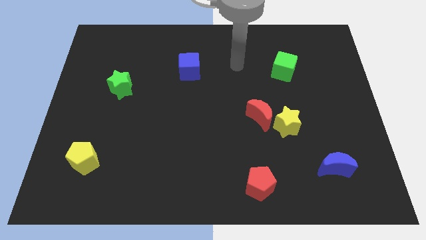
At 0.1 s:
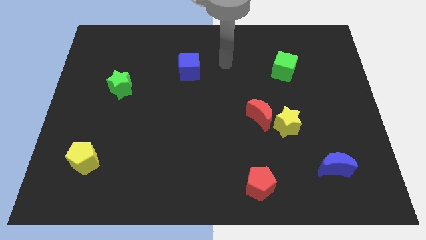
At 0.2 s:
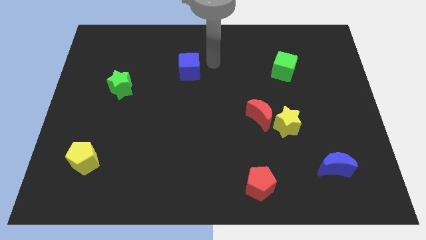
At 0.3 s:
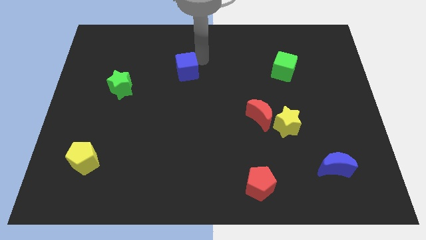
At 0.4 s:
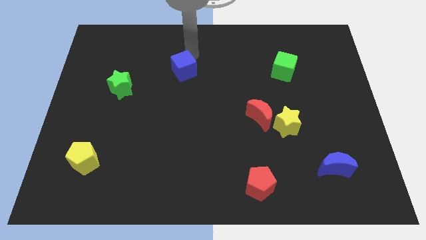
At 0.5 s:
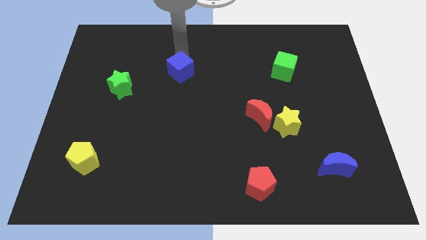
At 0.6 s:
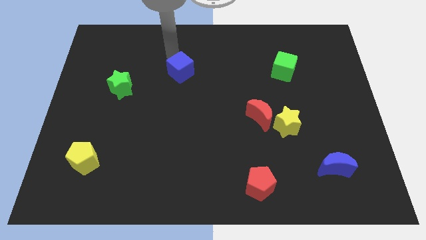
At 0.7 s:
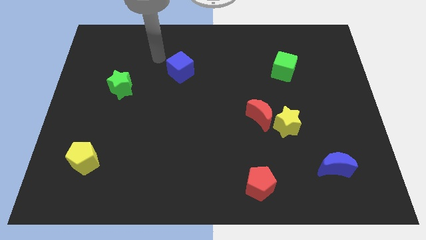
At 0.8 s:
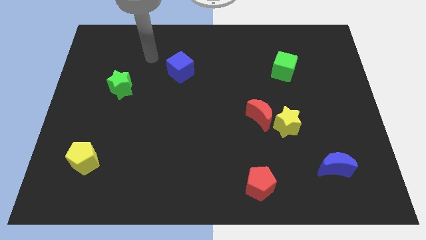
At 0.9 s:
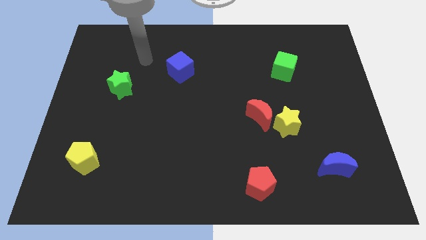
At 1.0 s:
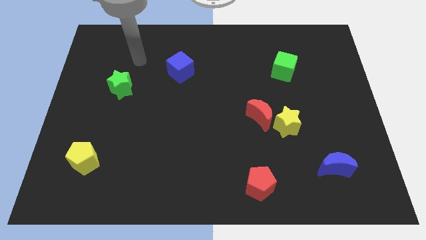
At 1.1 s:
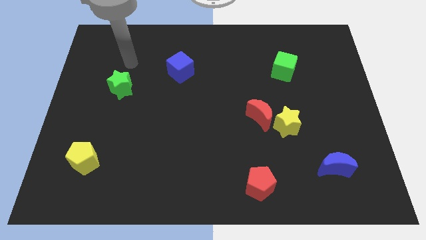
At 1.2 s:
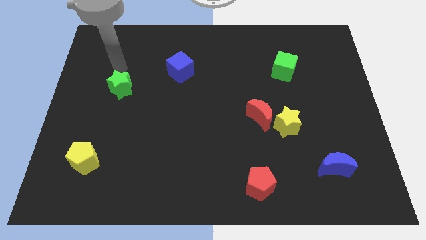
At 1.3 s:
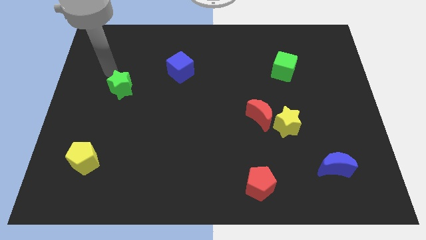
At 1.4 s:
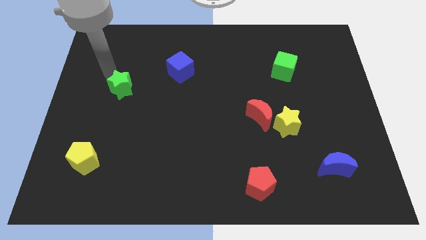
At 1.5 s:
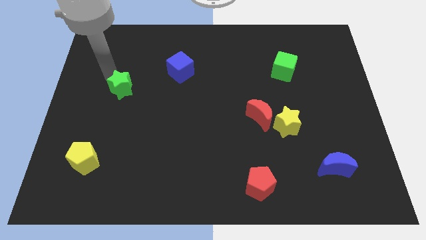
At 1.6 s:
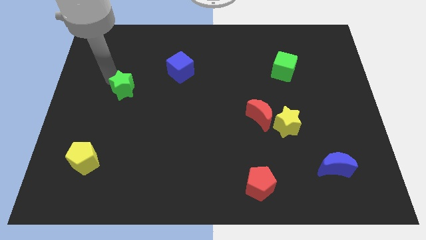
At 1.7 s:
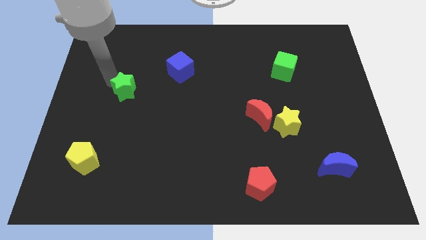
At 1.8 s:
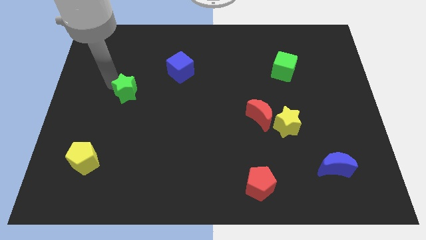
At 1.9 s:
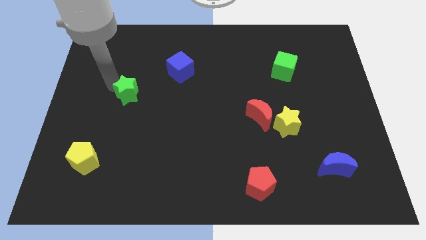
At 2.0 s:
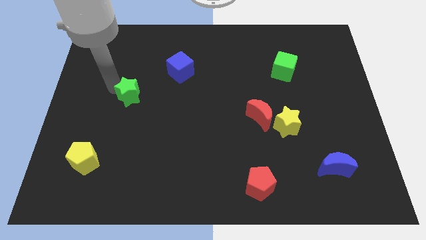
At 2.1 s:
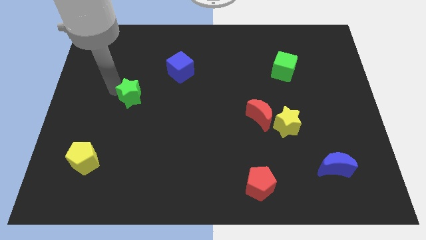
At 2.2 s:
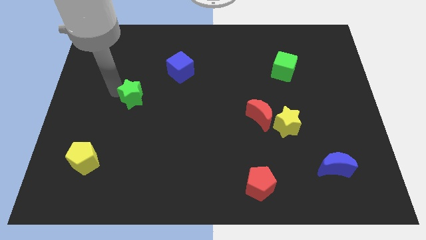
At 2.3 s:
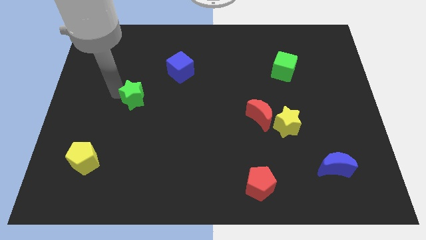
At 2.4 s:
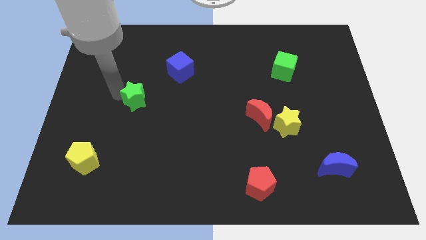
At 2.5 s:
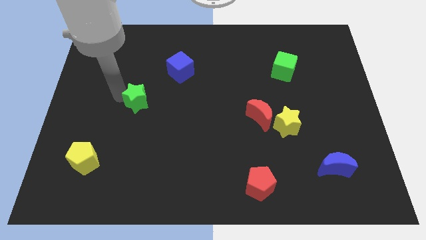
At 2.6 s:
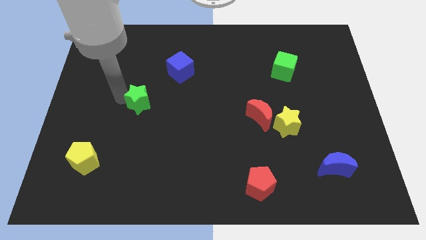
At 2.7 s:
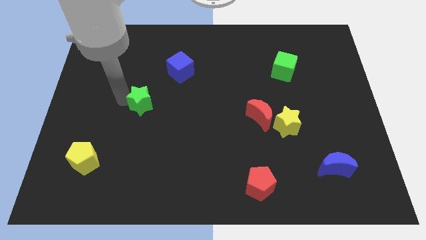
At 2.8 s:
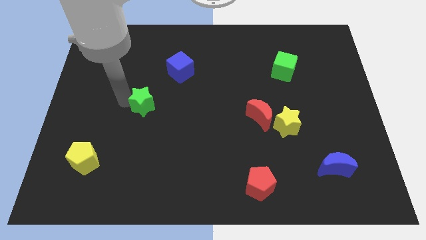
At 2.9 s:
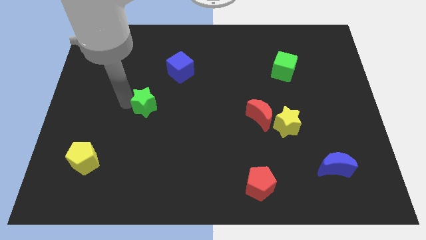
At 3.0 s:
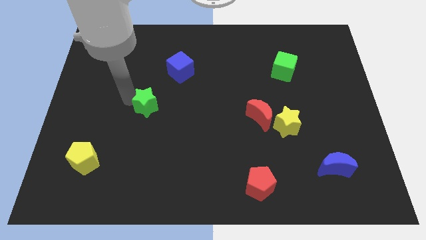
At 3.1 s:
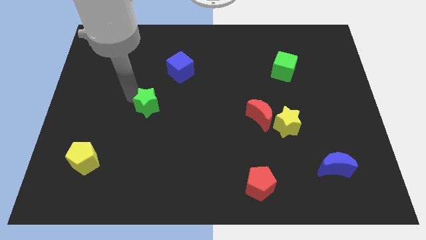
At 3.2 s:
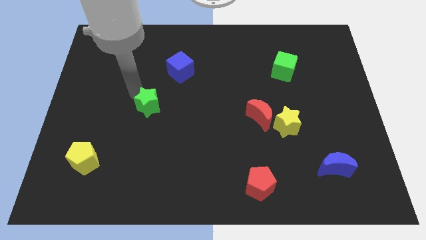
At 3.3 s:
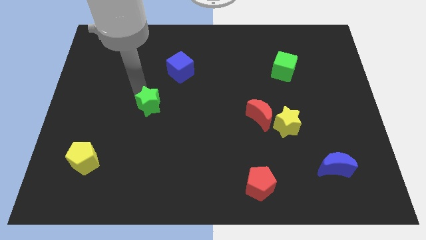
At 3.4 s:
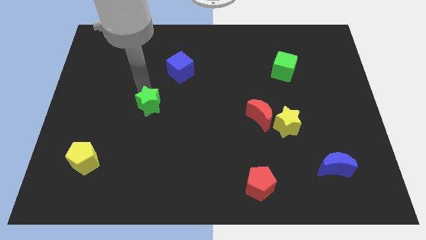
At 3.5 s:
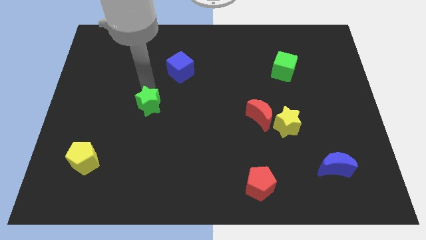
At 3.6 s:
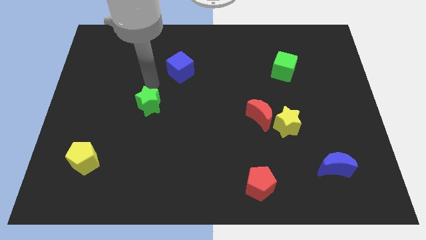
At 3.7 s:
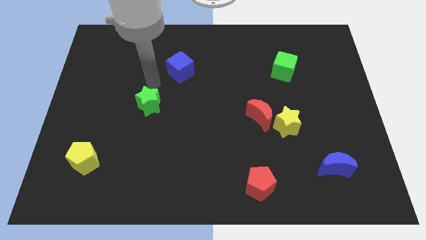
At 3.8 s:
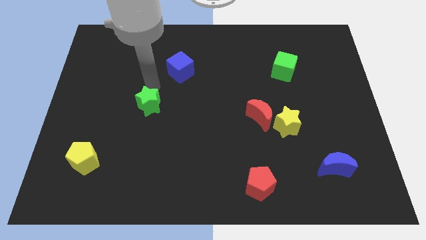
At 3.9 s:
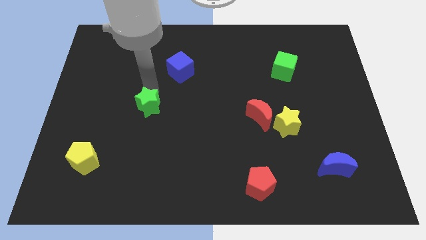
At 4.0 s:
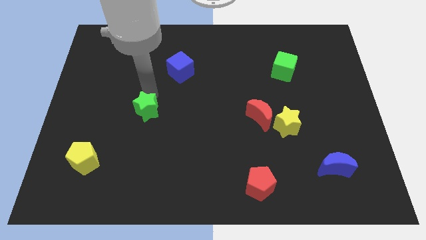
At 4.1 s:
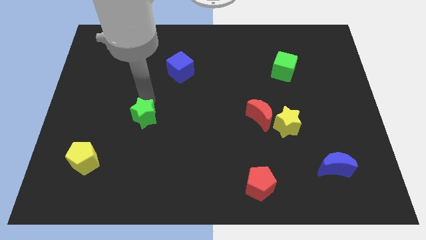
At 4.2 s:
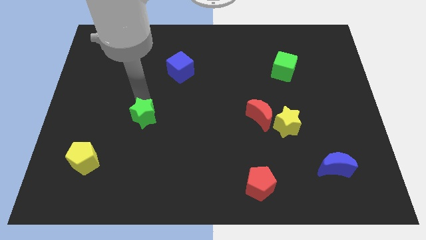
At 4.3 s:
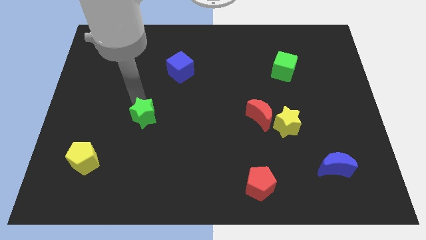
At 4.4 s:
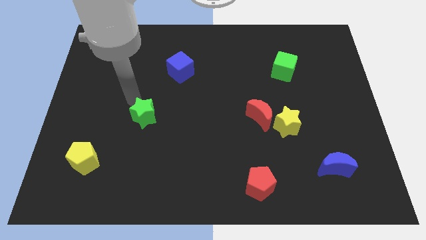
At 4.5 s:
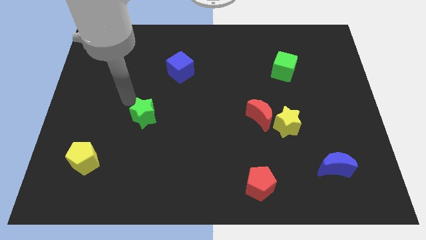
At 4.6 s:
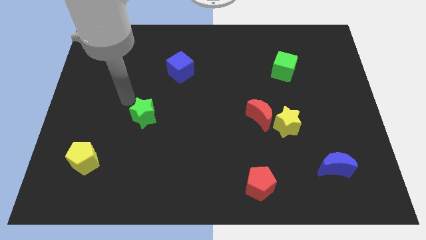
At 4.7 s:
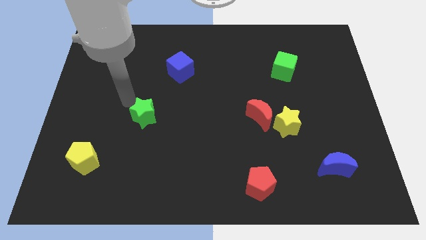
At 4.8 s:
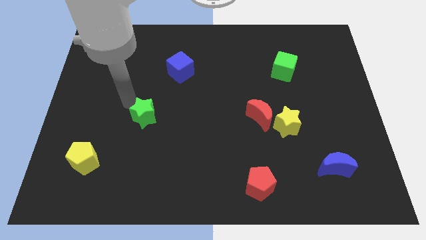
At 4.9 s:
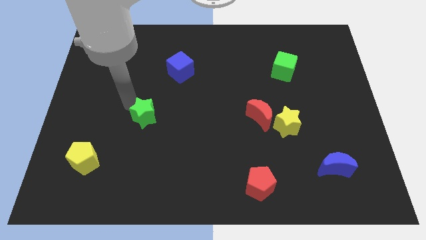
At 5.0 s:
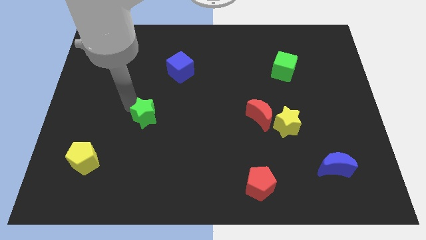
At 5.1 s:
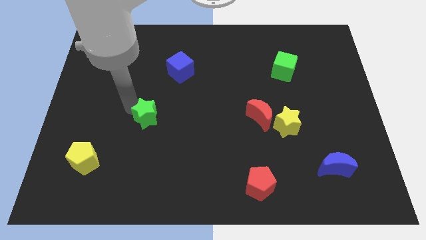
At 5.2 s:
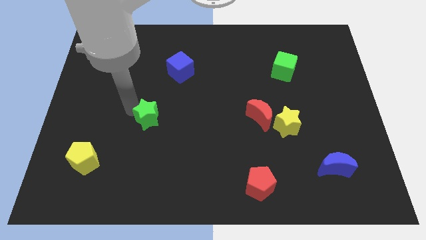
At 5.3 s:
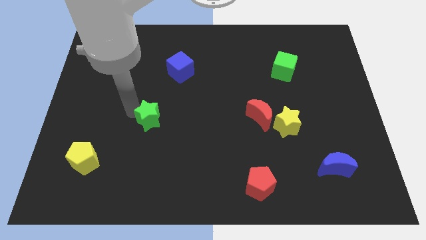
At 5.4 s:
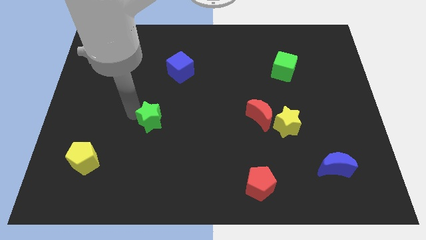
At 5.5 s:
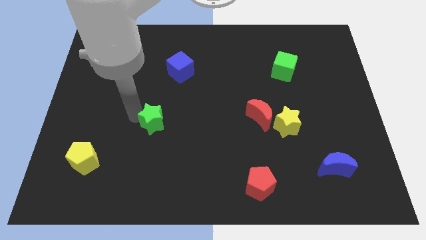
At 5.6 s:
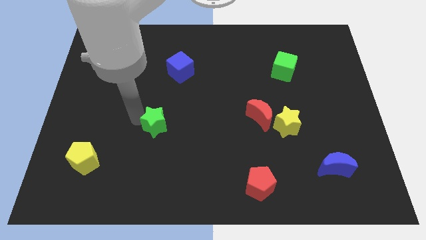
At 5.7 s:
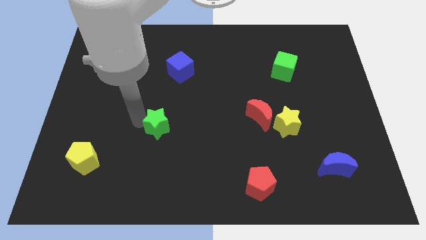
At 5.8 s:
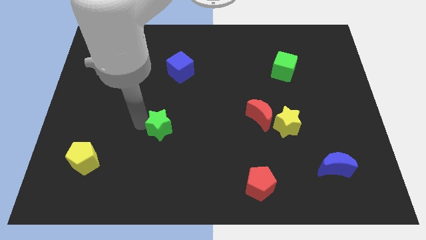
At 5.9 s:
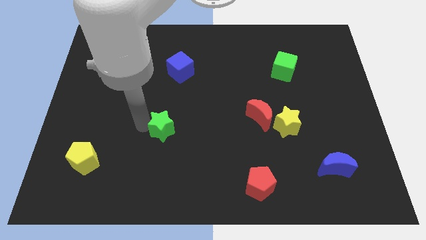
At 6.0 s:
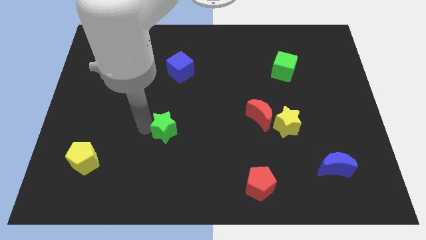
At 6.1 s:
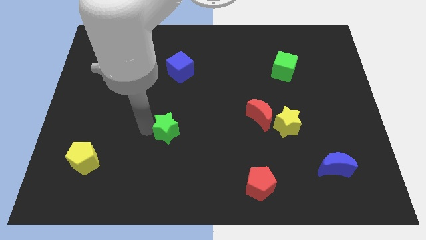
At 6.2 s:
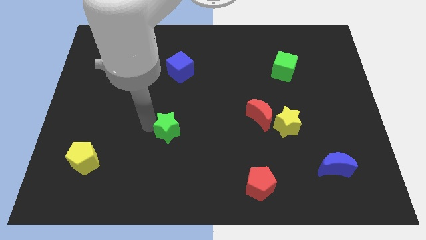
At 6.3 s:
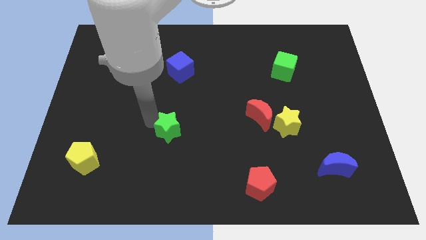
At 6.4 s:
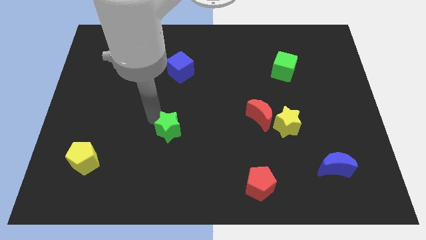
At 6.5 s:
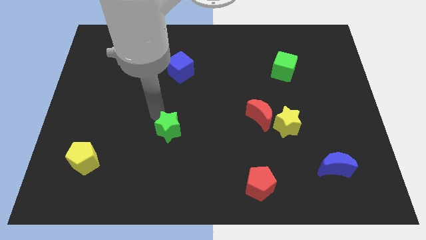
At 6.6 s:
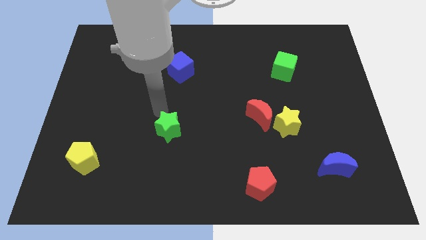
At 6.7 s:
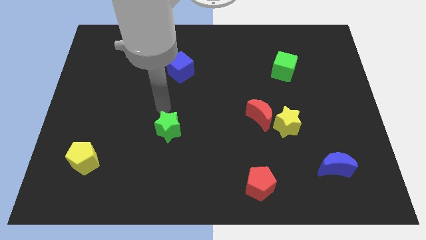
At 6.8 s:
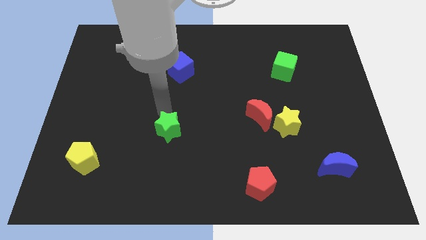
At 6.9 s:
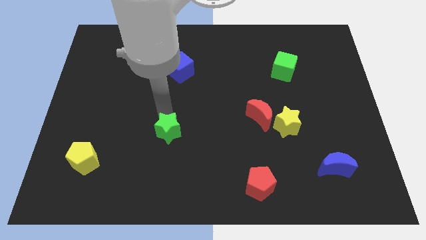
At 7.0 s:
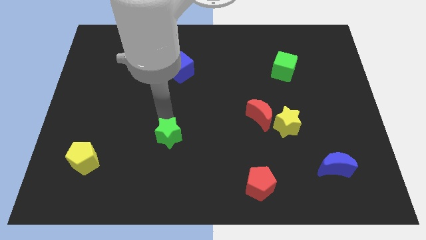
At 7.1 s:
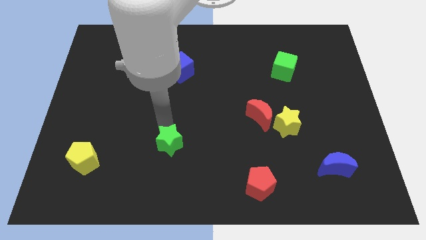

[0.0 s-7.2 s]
slide the green star diagonally down and right
